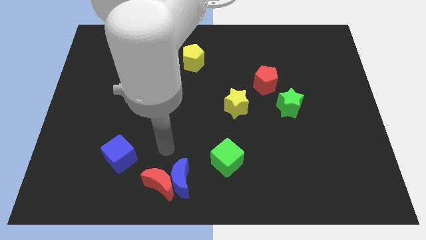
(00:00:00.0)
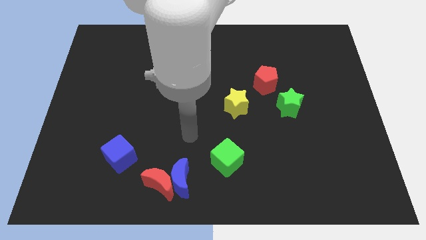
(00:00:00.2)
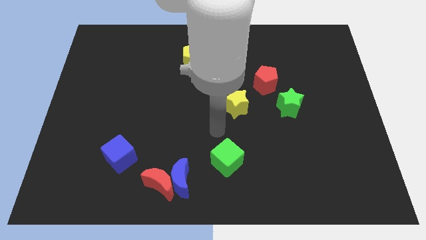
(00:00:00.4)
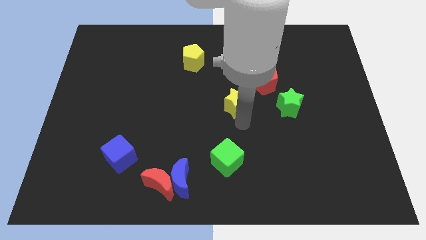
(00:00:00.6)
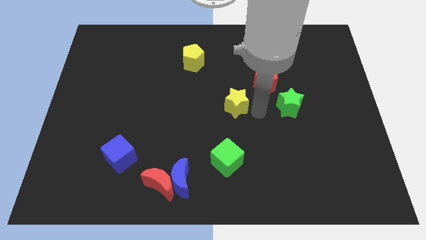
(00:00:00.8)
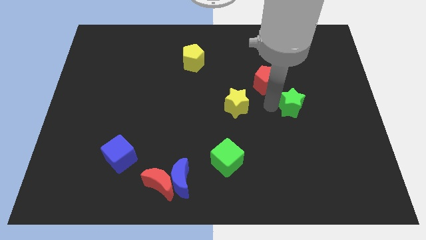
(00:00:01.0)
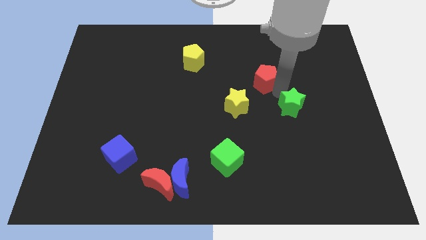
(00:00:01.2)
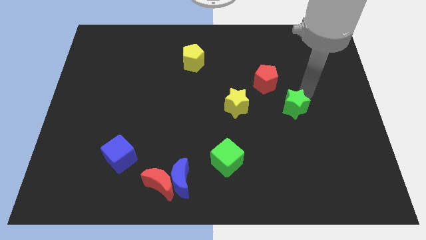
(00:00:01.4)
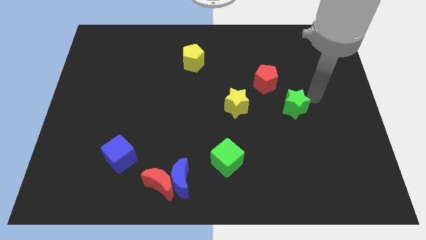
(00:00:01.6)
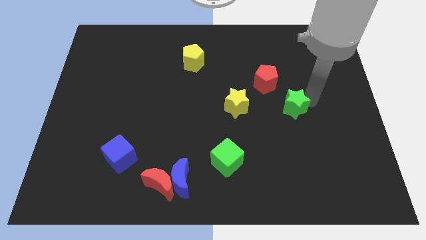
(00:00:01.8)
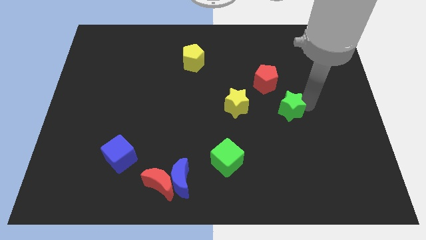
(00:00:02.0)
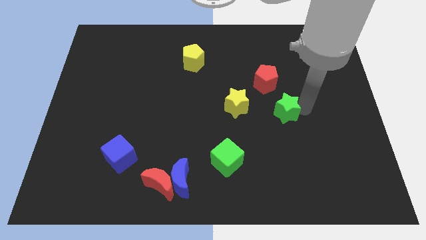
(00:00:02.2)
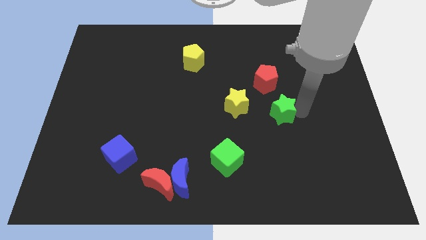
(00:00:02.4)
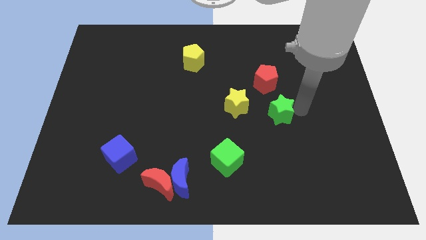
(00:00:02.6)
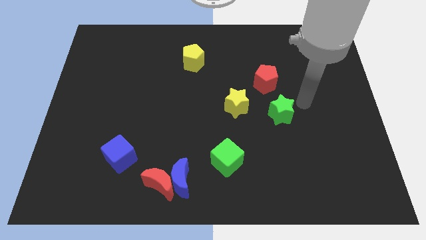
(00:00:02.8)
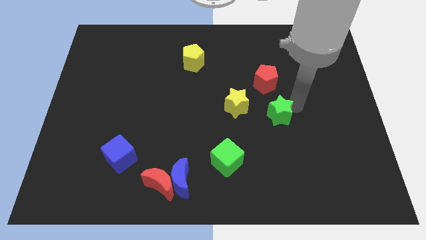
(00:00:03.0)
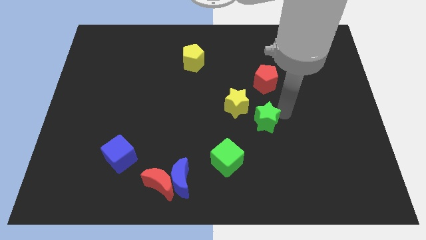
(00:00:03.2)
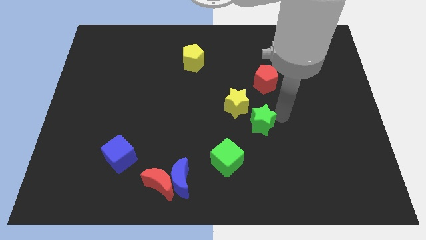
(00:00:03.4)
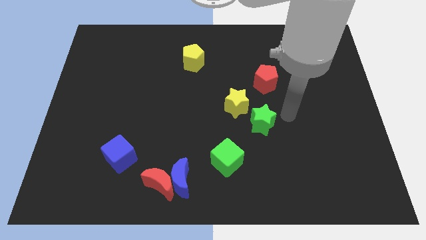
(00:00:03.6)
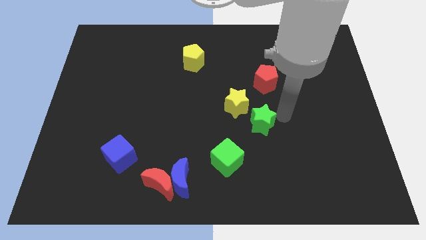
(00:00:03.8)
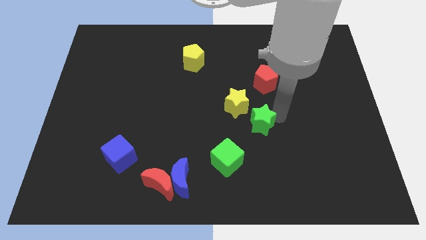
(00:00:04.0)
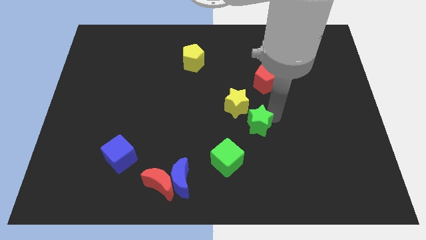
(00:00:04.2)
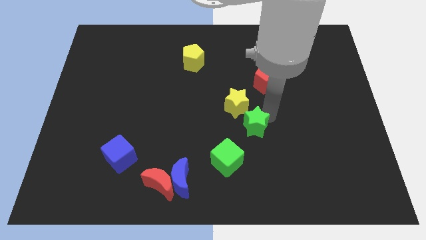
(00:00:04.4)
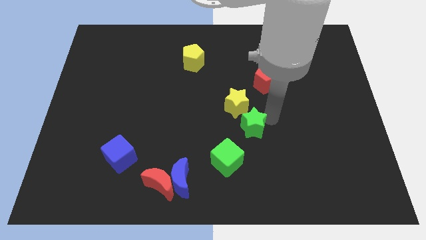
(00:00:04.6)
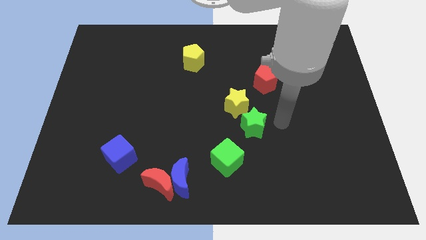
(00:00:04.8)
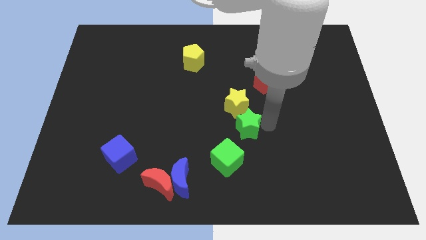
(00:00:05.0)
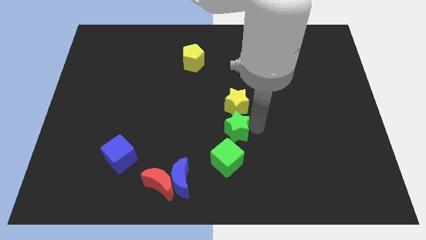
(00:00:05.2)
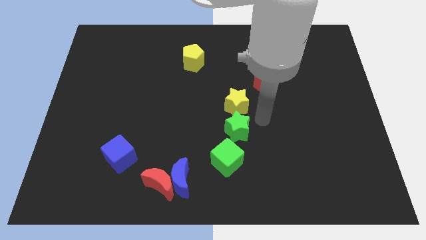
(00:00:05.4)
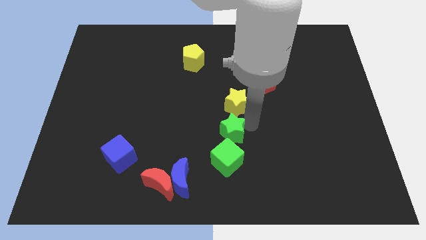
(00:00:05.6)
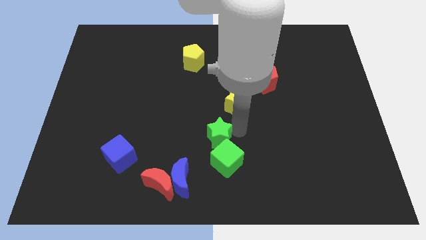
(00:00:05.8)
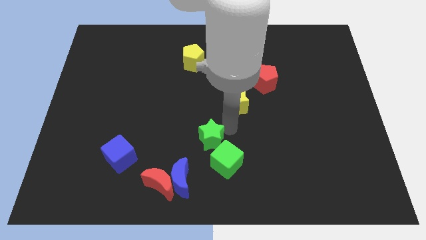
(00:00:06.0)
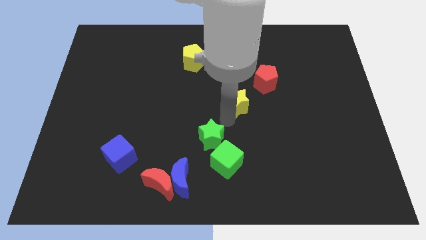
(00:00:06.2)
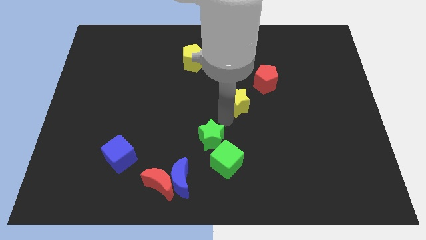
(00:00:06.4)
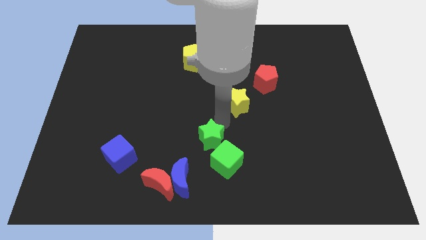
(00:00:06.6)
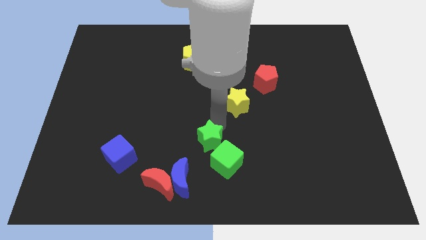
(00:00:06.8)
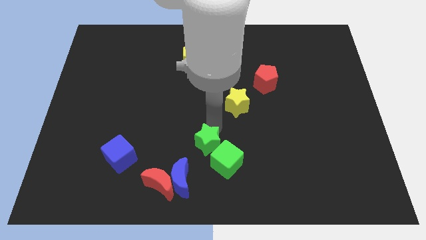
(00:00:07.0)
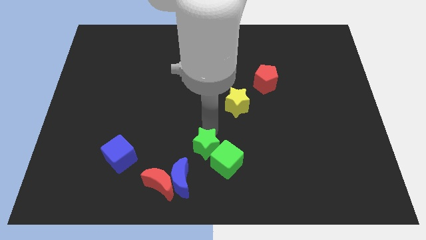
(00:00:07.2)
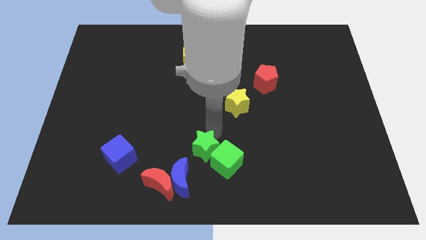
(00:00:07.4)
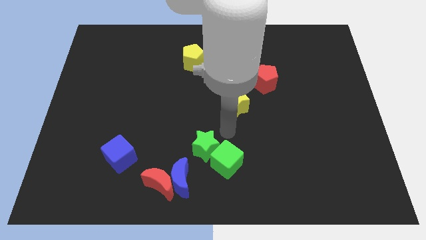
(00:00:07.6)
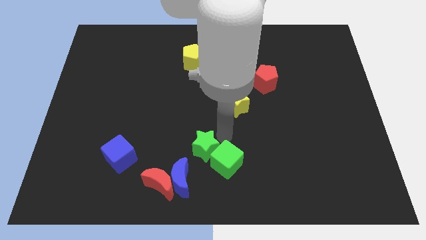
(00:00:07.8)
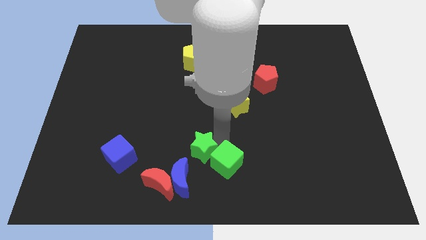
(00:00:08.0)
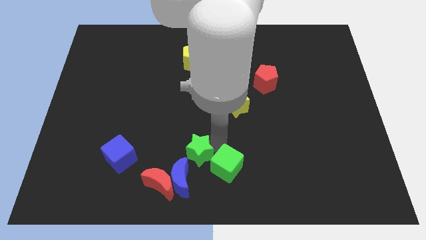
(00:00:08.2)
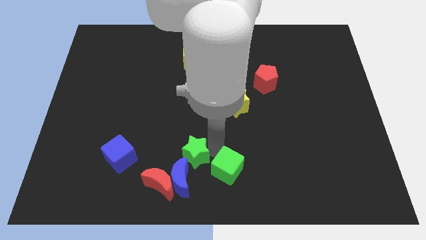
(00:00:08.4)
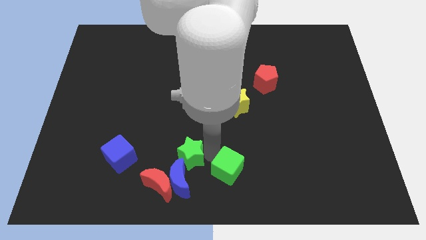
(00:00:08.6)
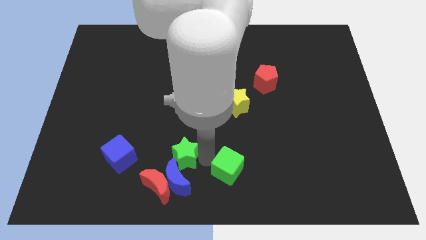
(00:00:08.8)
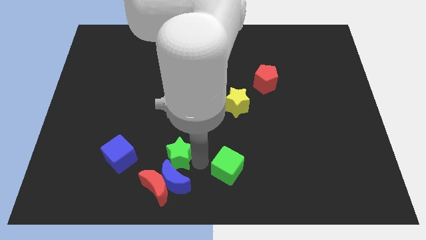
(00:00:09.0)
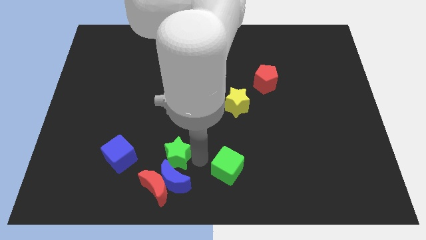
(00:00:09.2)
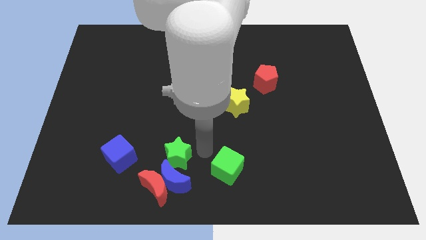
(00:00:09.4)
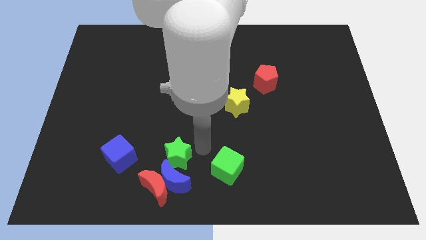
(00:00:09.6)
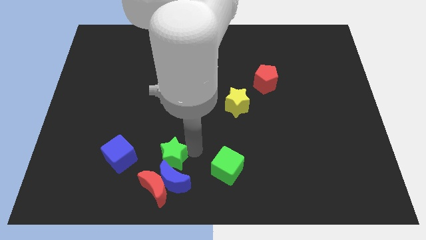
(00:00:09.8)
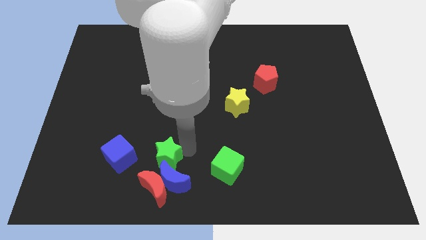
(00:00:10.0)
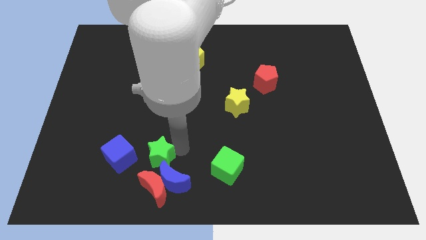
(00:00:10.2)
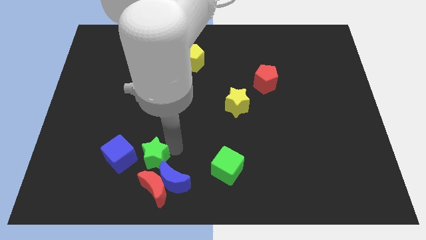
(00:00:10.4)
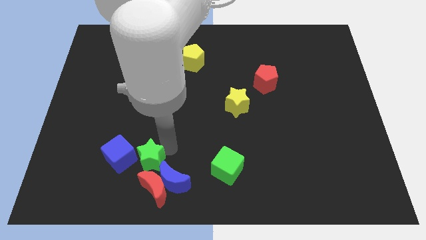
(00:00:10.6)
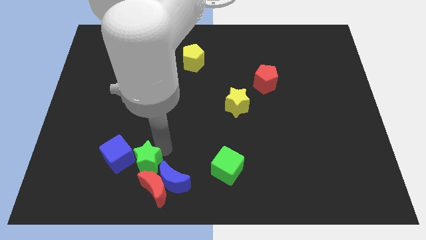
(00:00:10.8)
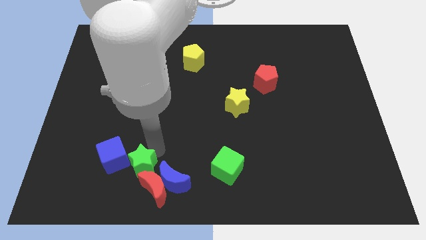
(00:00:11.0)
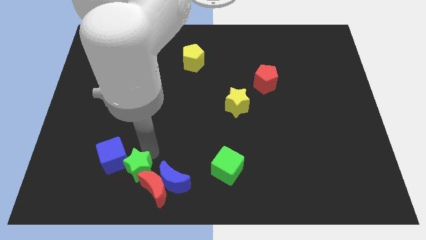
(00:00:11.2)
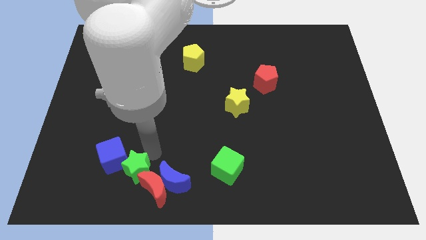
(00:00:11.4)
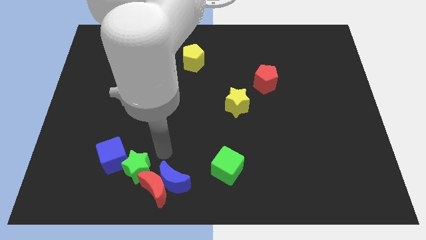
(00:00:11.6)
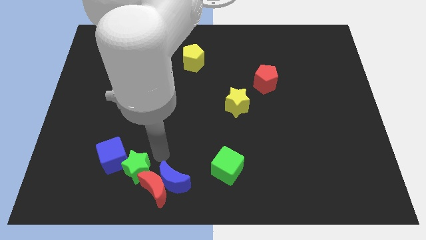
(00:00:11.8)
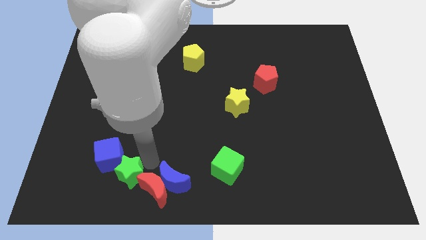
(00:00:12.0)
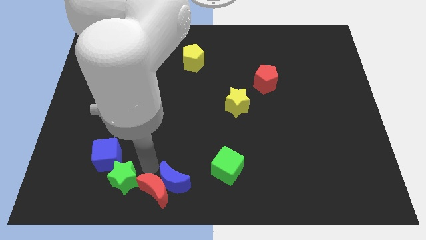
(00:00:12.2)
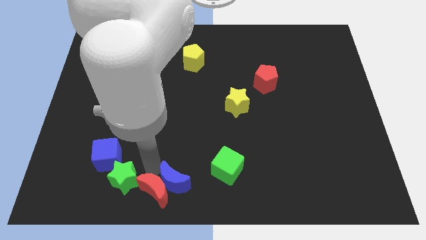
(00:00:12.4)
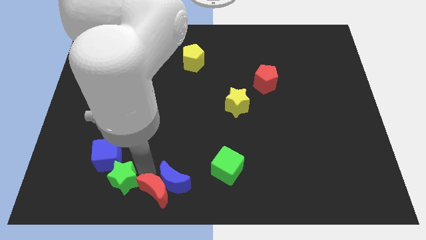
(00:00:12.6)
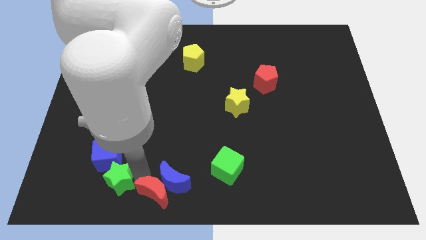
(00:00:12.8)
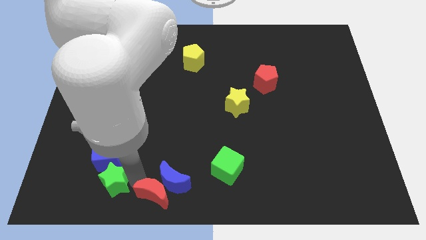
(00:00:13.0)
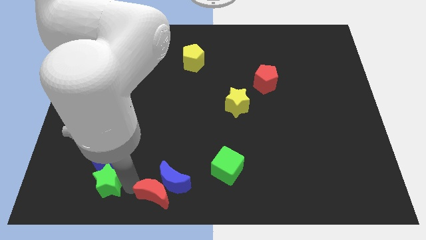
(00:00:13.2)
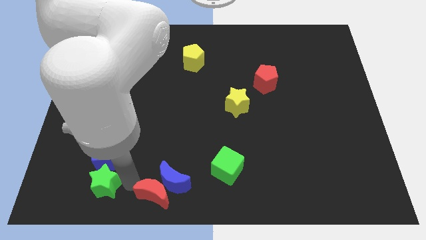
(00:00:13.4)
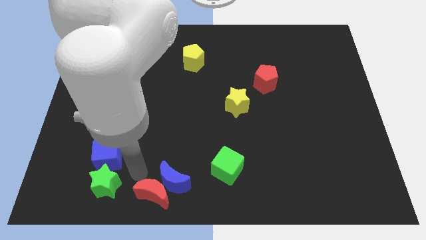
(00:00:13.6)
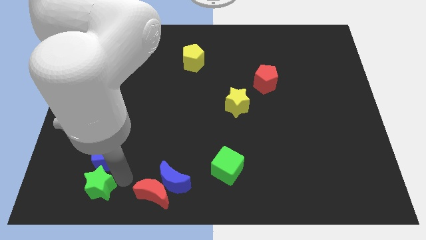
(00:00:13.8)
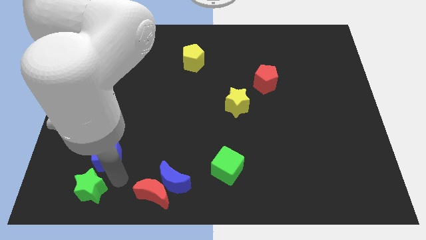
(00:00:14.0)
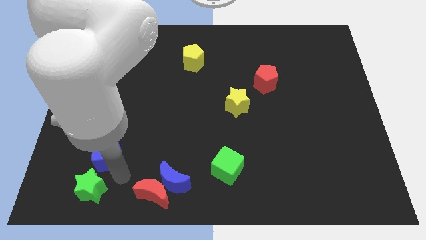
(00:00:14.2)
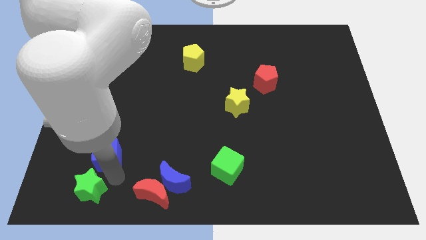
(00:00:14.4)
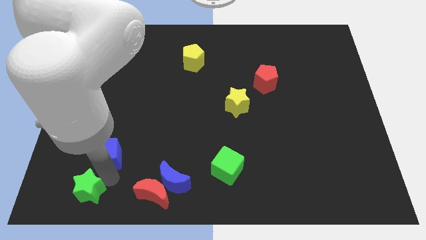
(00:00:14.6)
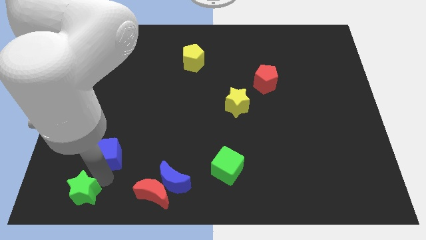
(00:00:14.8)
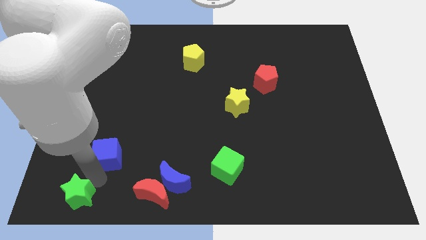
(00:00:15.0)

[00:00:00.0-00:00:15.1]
move the green star to the bottom left of the board
